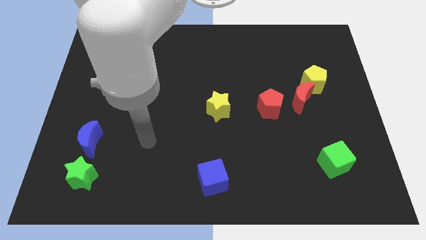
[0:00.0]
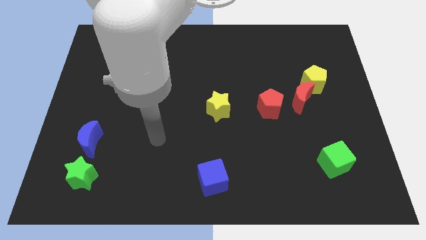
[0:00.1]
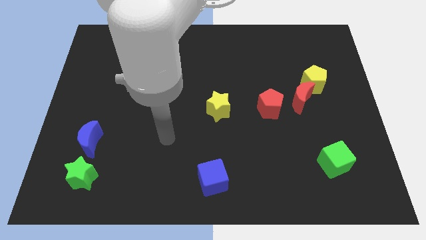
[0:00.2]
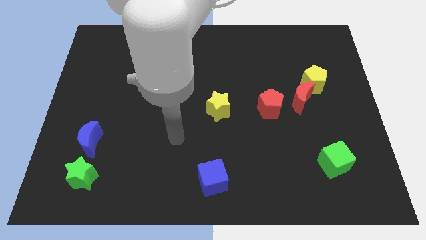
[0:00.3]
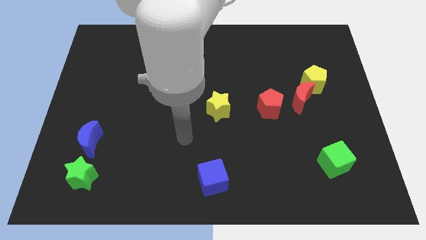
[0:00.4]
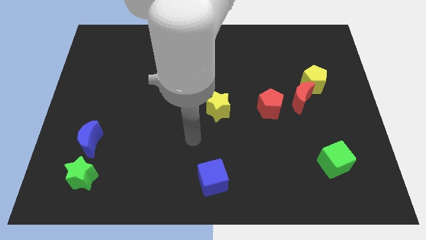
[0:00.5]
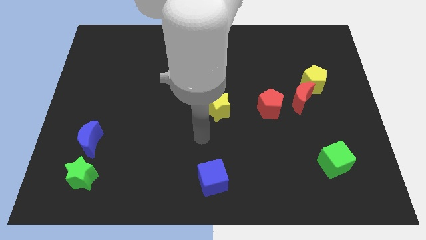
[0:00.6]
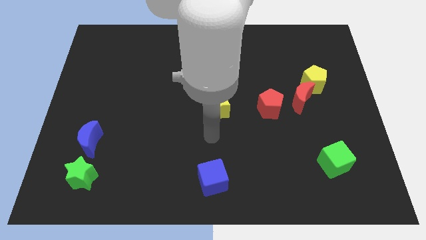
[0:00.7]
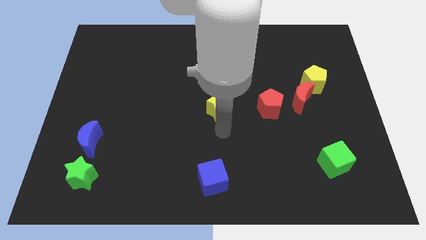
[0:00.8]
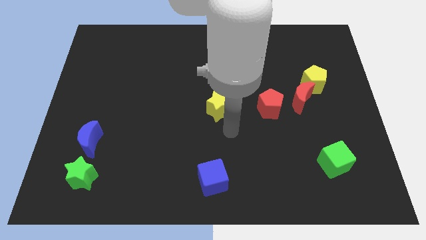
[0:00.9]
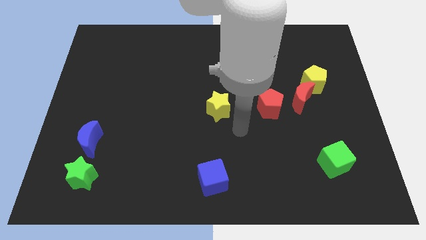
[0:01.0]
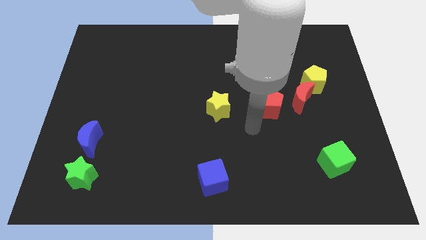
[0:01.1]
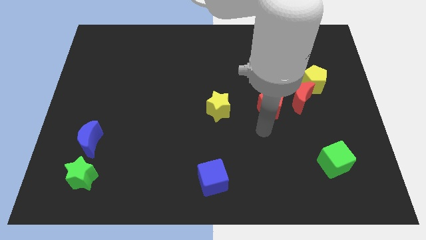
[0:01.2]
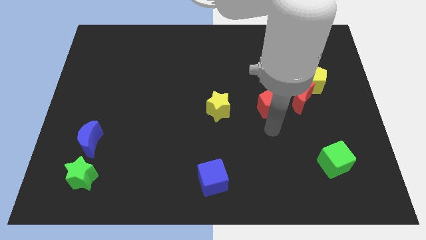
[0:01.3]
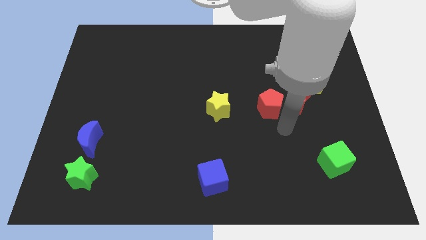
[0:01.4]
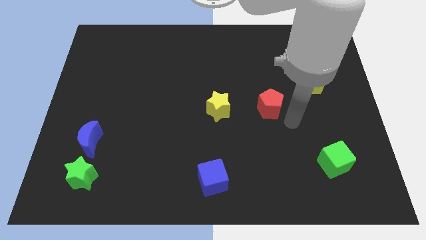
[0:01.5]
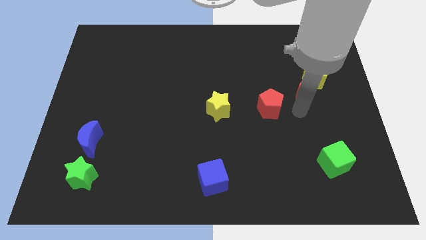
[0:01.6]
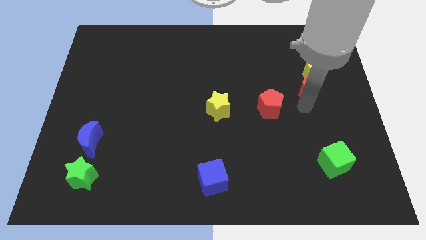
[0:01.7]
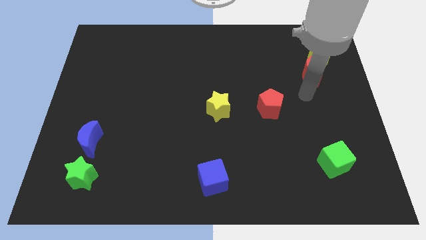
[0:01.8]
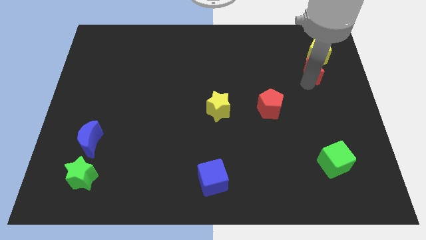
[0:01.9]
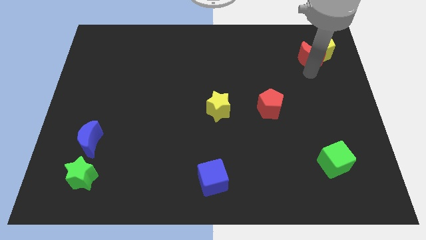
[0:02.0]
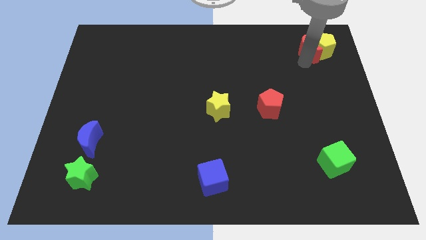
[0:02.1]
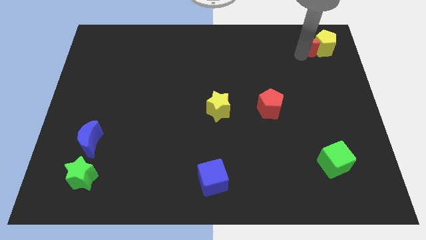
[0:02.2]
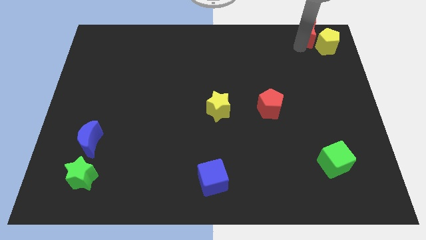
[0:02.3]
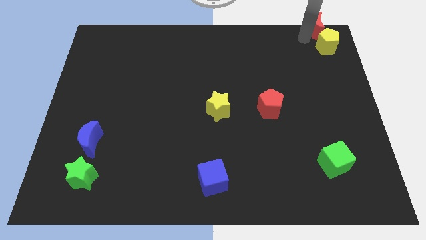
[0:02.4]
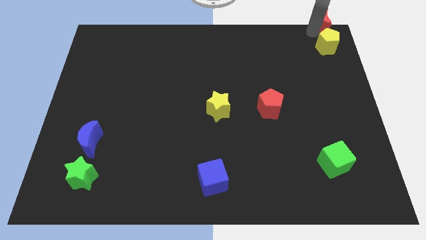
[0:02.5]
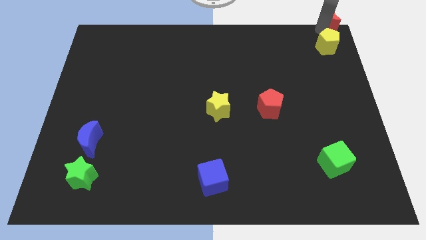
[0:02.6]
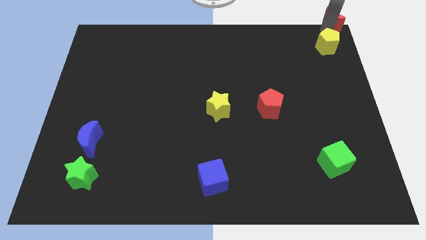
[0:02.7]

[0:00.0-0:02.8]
pull the yellow pentagon apart from the red moon

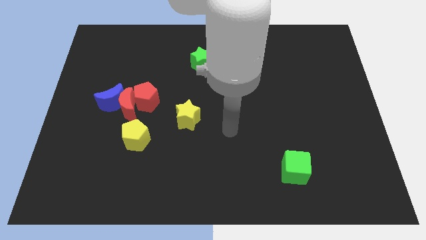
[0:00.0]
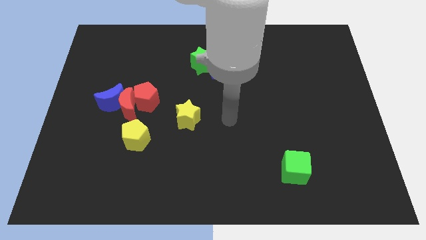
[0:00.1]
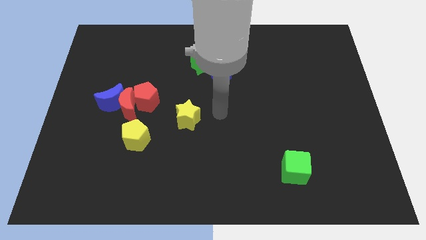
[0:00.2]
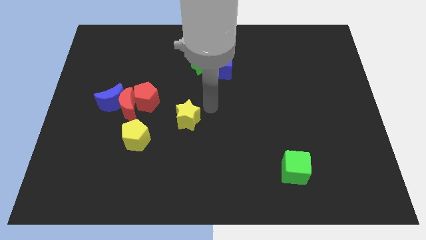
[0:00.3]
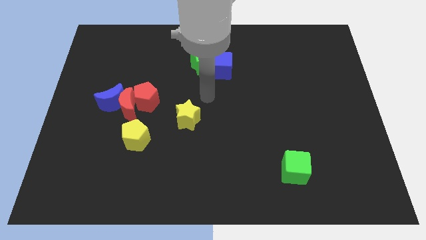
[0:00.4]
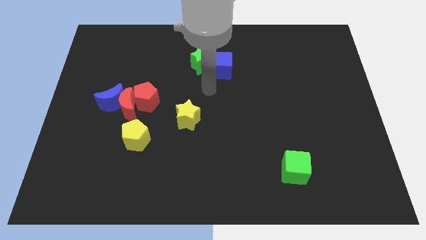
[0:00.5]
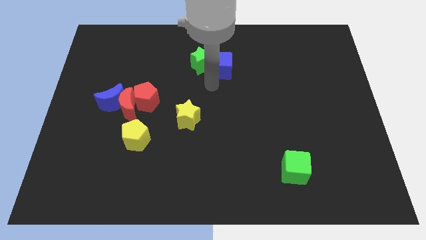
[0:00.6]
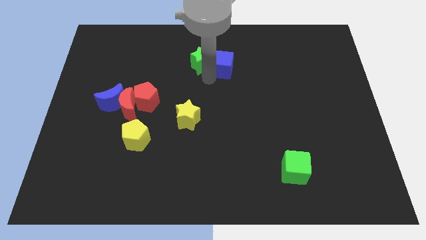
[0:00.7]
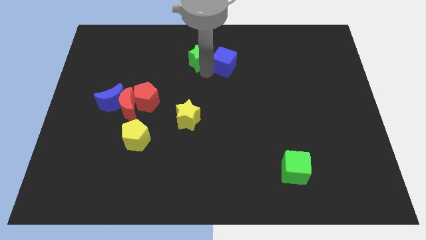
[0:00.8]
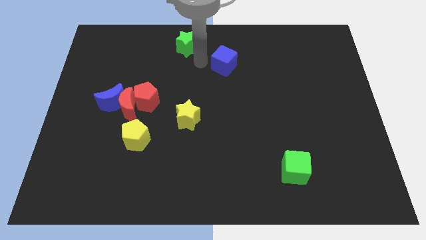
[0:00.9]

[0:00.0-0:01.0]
pull the blue cube apart from the green star

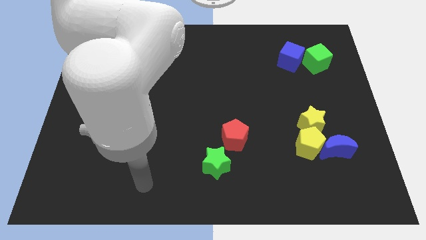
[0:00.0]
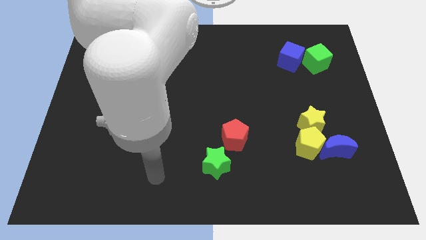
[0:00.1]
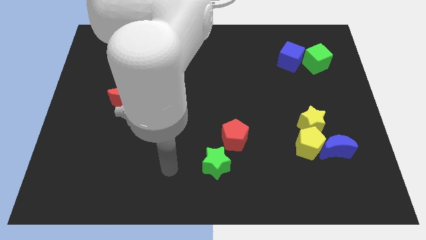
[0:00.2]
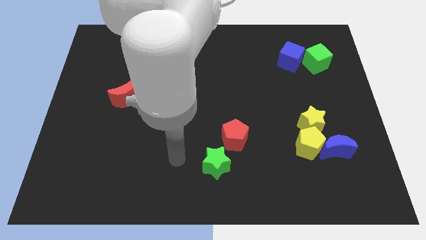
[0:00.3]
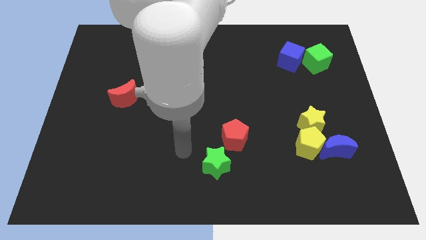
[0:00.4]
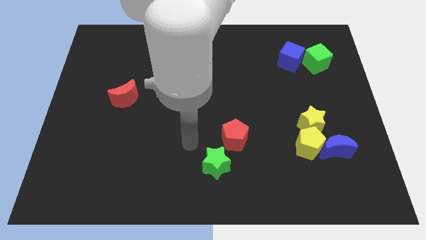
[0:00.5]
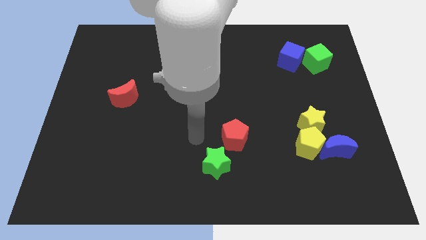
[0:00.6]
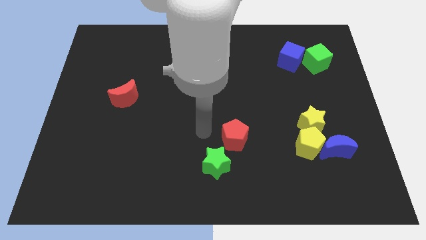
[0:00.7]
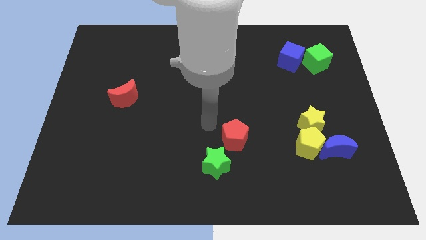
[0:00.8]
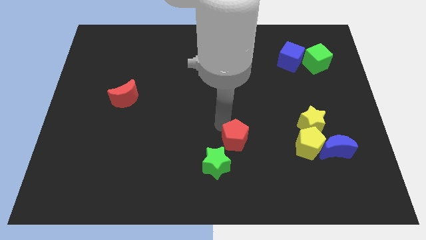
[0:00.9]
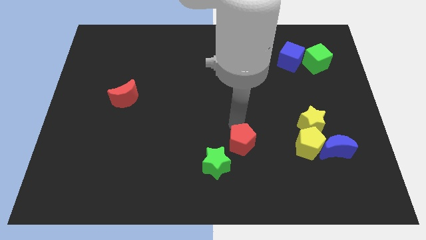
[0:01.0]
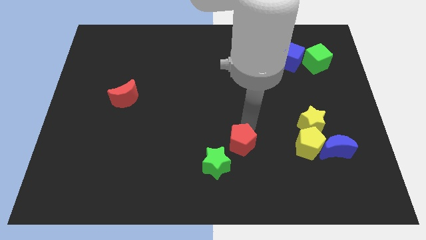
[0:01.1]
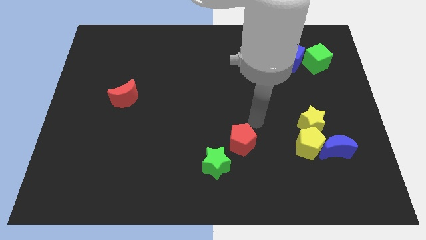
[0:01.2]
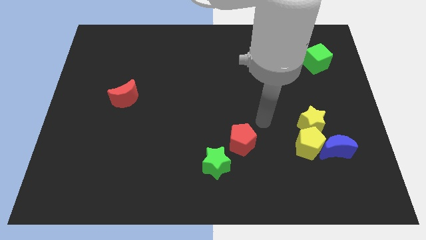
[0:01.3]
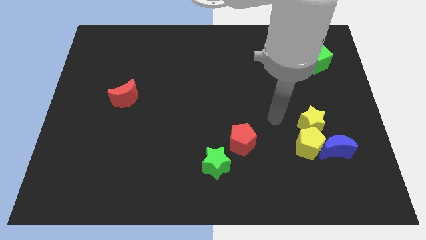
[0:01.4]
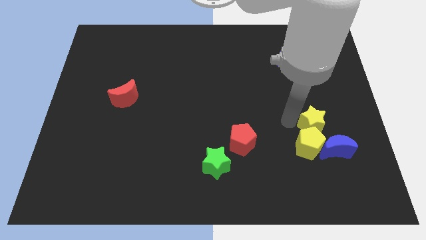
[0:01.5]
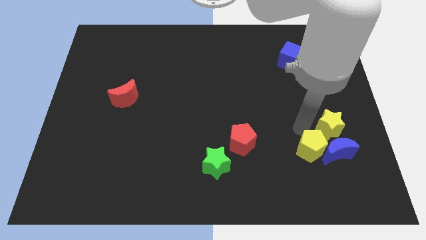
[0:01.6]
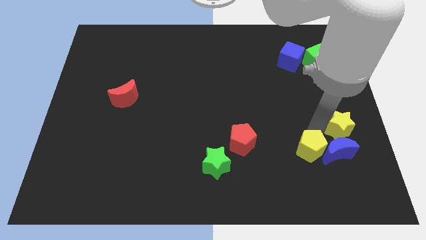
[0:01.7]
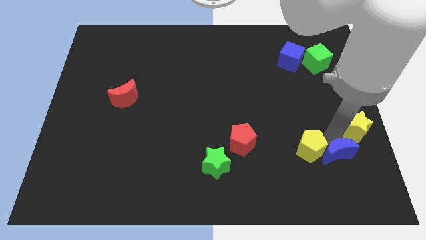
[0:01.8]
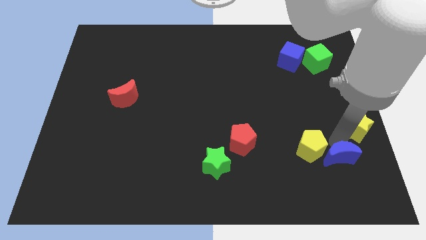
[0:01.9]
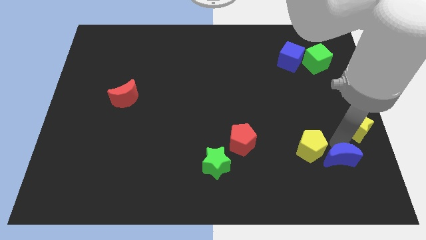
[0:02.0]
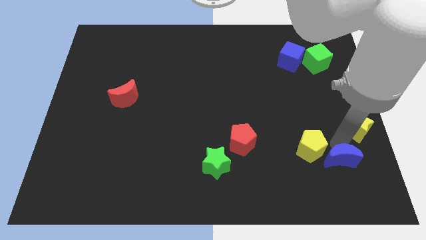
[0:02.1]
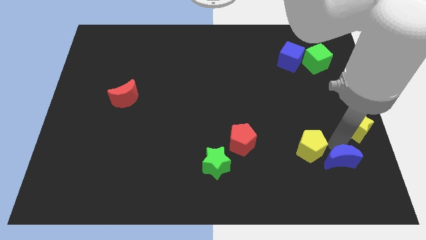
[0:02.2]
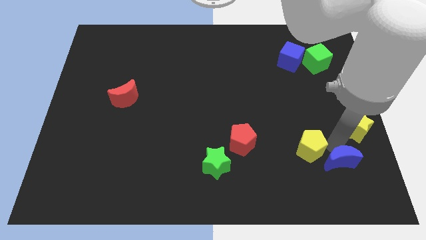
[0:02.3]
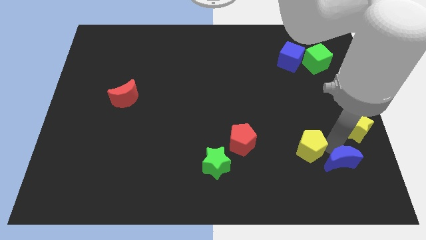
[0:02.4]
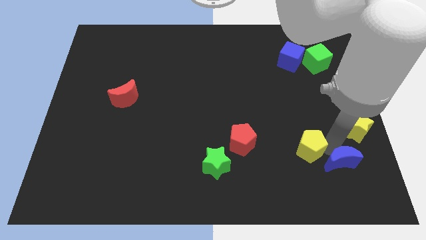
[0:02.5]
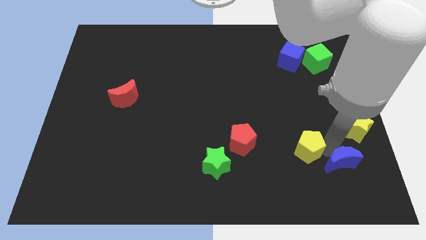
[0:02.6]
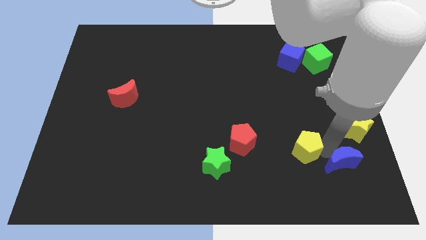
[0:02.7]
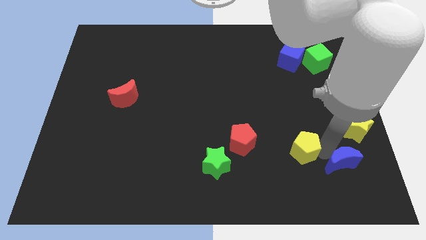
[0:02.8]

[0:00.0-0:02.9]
move the yellow pentagon away from the blue moon and yellow star

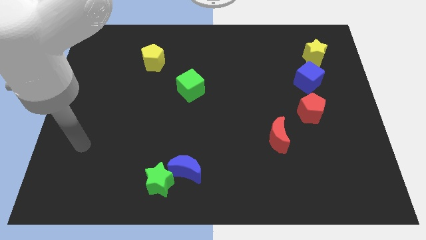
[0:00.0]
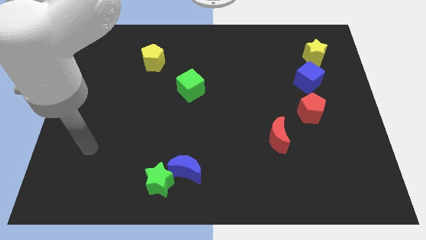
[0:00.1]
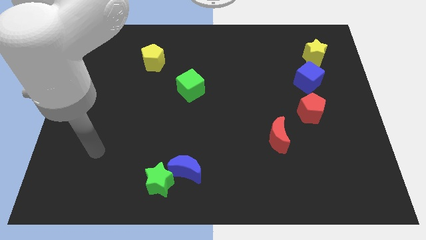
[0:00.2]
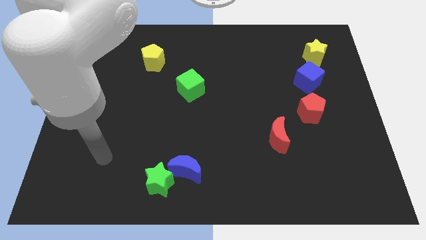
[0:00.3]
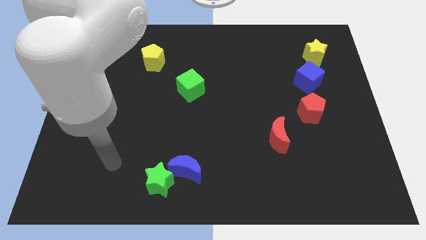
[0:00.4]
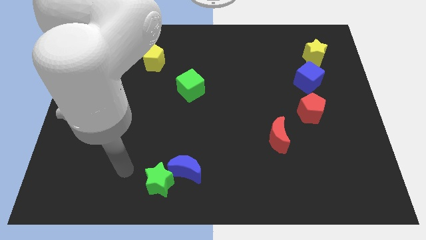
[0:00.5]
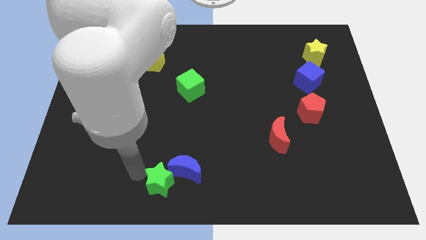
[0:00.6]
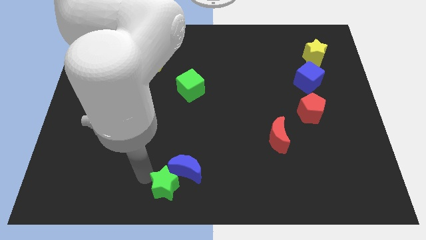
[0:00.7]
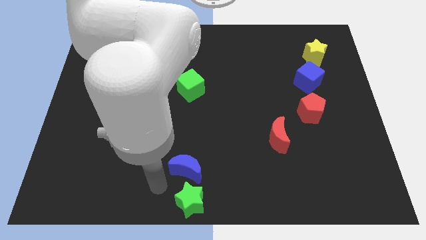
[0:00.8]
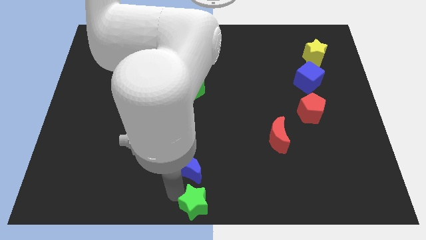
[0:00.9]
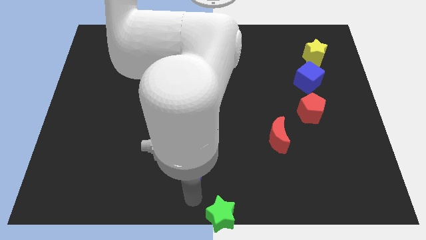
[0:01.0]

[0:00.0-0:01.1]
move the blue moon away from the green star

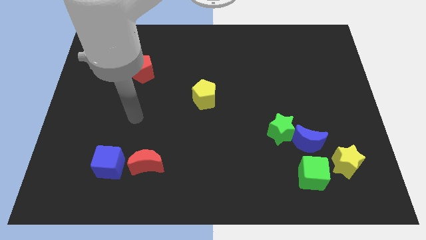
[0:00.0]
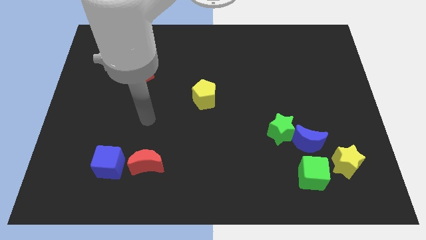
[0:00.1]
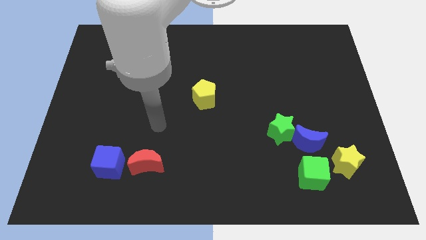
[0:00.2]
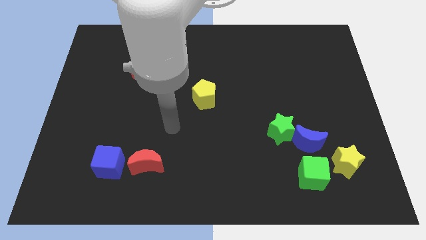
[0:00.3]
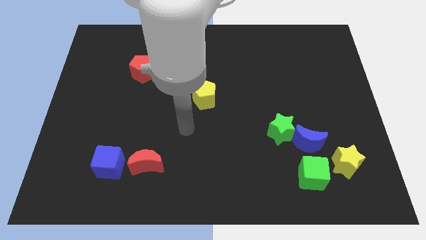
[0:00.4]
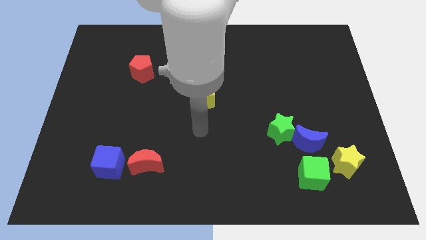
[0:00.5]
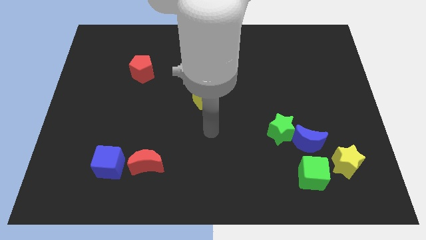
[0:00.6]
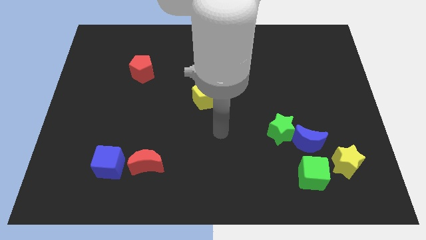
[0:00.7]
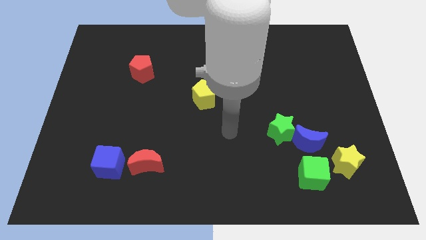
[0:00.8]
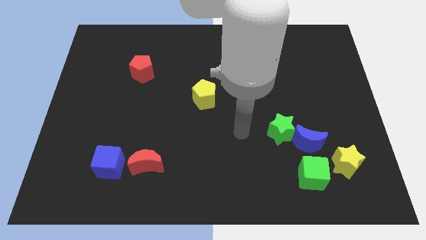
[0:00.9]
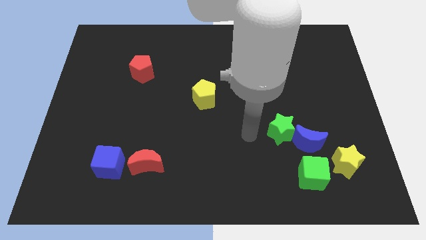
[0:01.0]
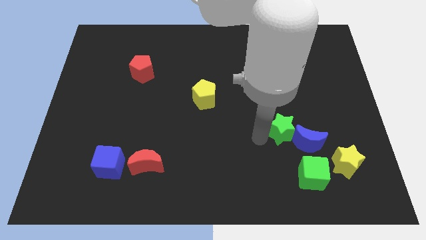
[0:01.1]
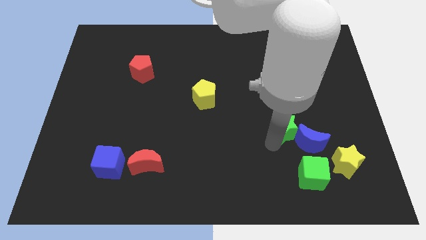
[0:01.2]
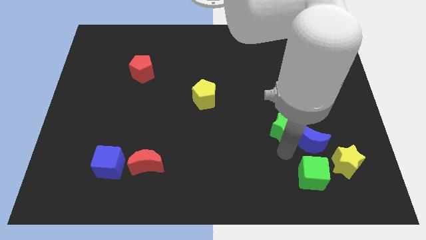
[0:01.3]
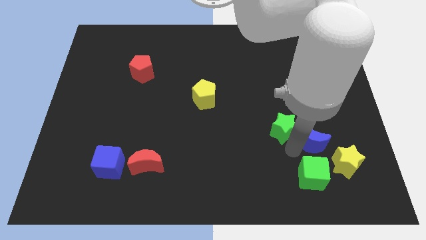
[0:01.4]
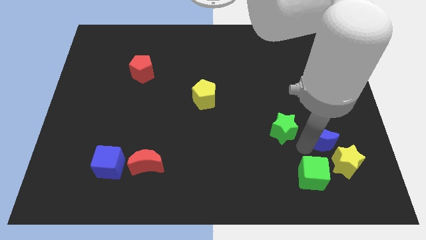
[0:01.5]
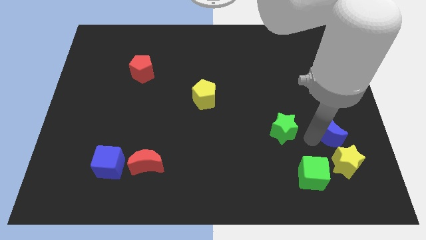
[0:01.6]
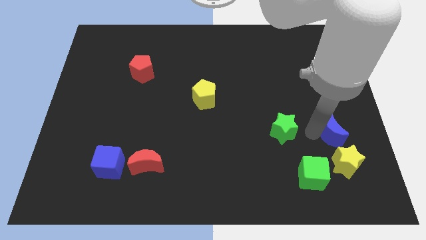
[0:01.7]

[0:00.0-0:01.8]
separate the green star from the blue moon
